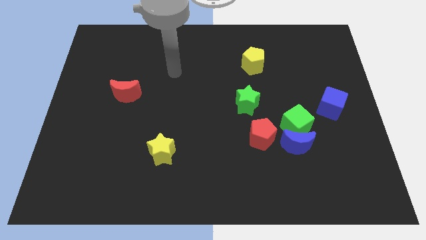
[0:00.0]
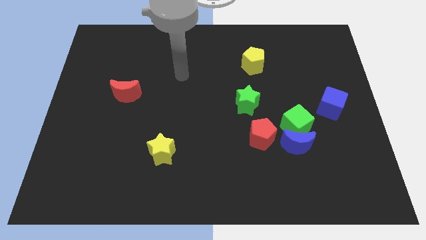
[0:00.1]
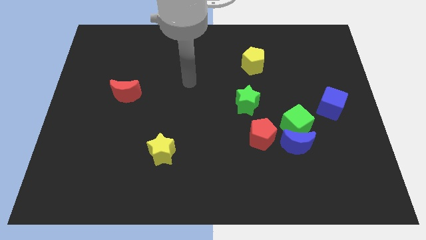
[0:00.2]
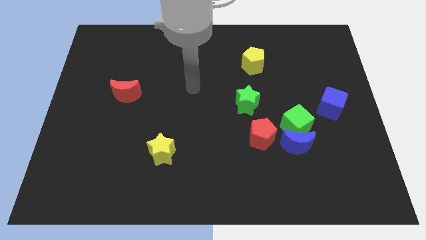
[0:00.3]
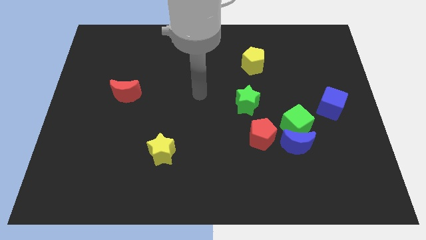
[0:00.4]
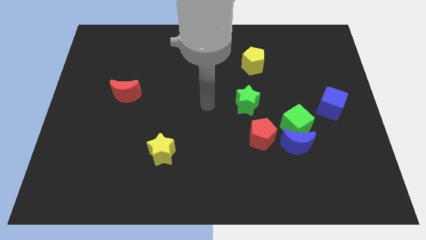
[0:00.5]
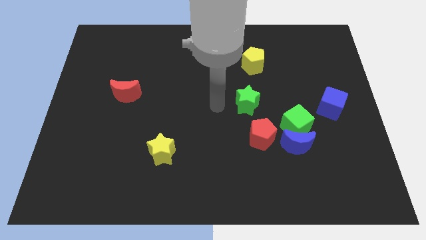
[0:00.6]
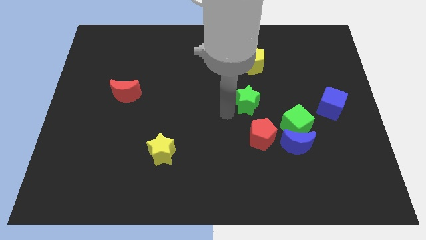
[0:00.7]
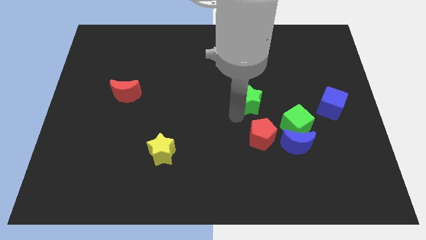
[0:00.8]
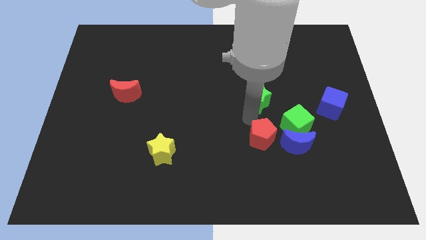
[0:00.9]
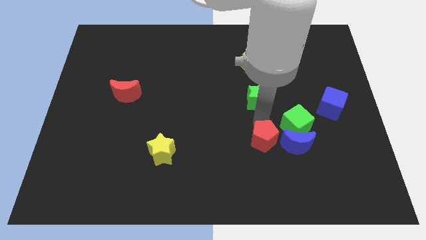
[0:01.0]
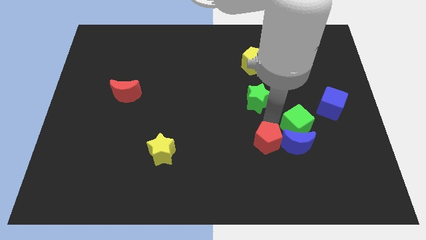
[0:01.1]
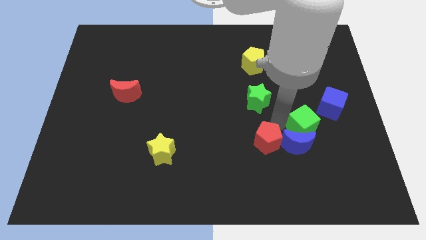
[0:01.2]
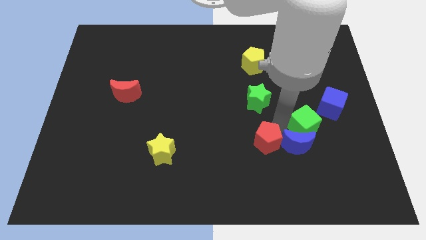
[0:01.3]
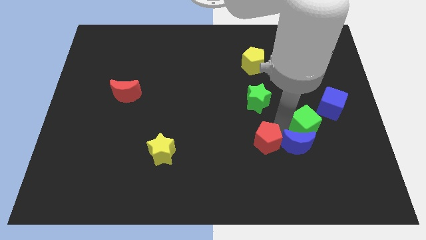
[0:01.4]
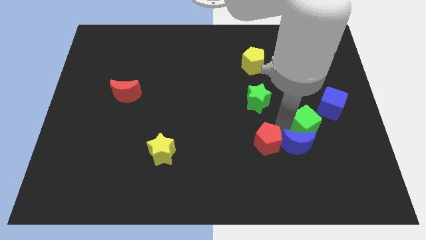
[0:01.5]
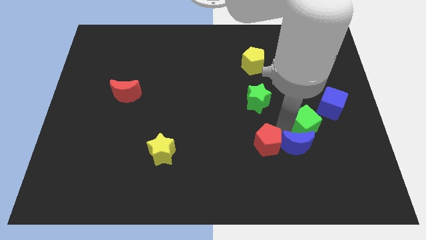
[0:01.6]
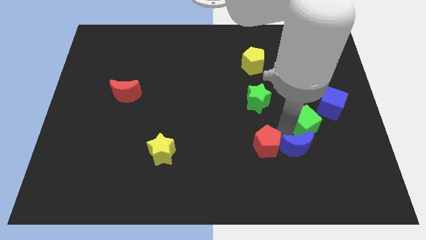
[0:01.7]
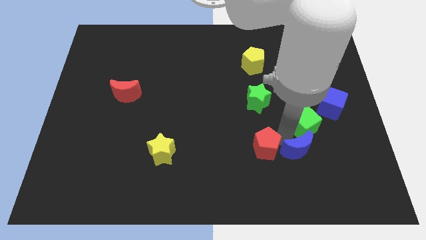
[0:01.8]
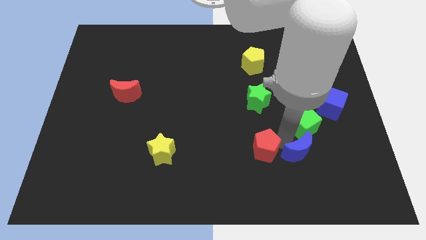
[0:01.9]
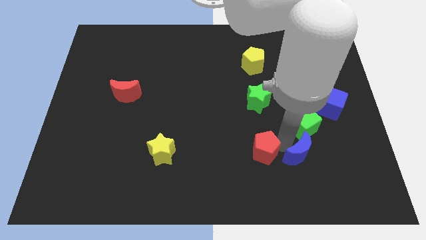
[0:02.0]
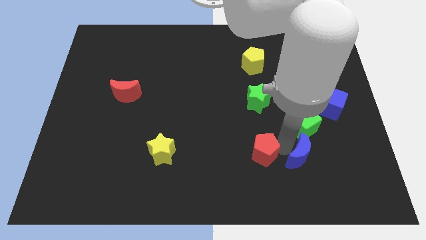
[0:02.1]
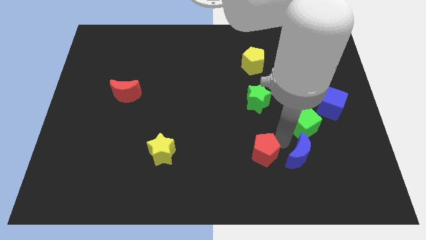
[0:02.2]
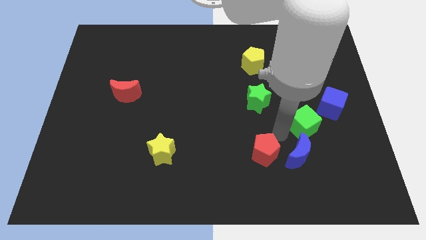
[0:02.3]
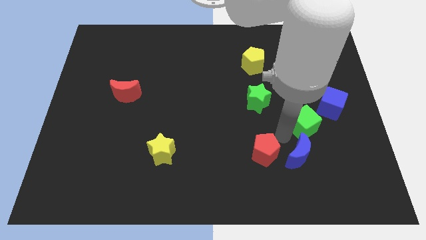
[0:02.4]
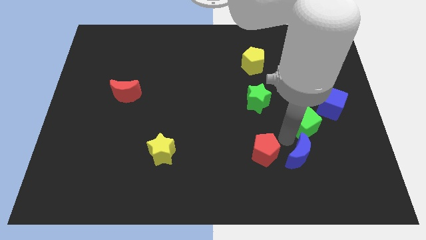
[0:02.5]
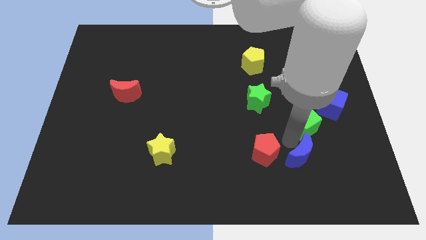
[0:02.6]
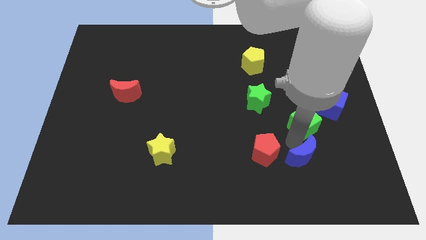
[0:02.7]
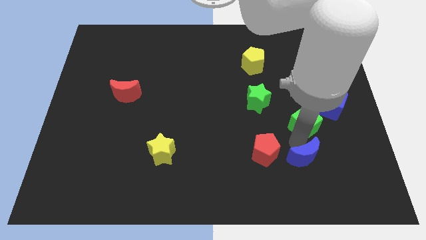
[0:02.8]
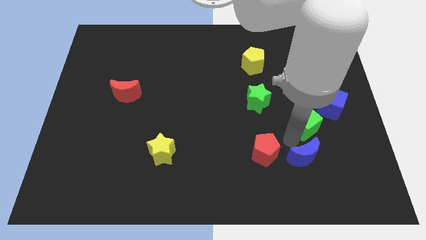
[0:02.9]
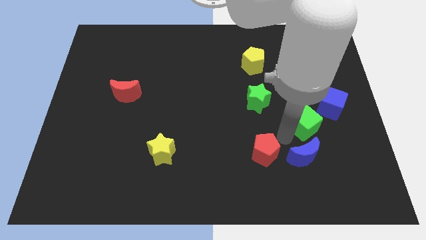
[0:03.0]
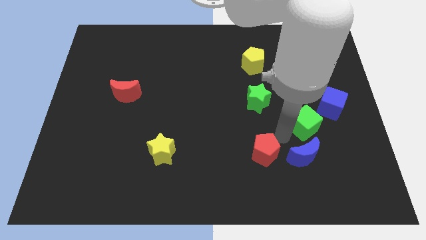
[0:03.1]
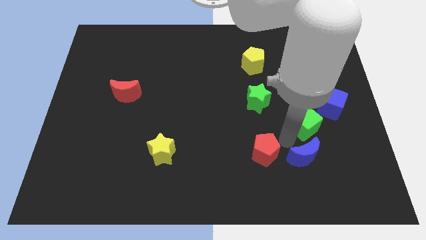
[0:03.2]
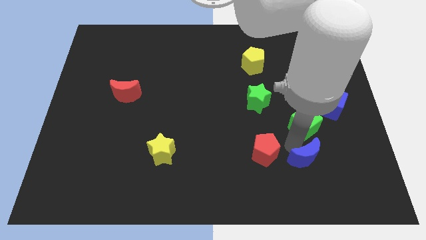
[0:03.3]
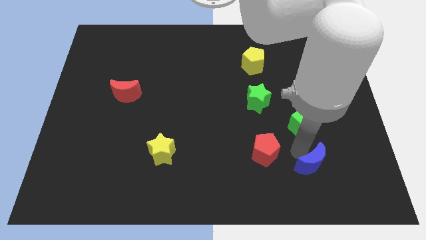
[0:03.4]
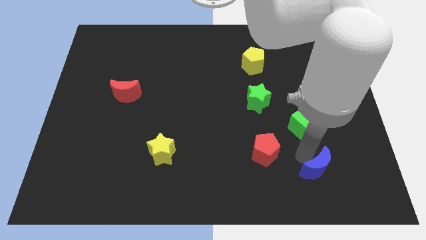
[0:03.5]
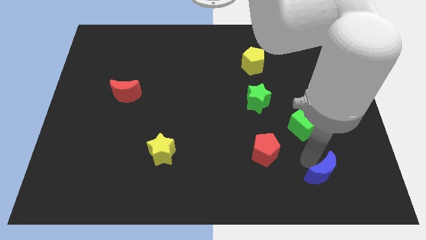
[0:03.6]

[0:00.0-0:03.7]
move the blue moon away from the green cube and red pentagon

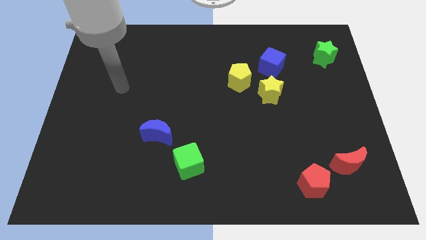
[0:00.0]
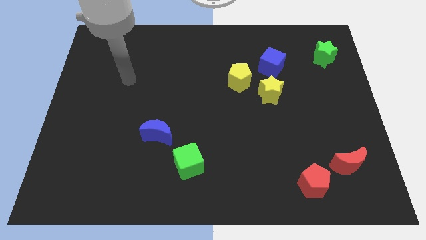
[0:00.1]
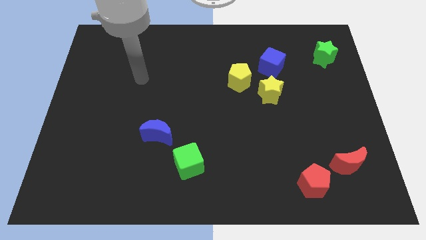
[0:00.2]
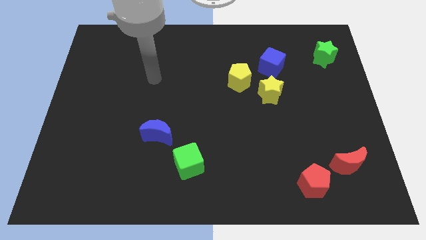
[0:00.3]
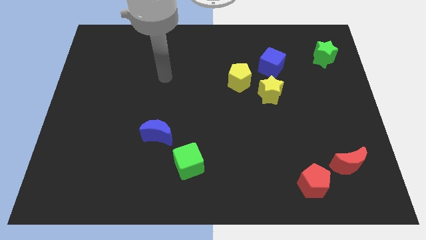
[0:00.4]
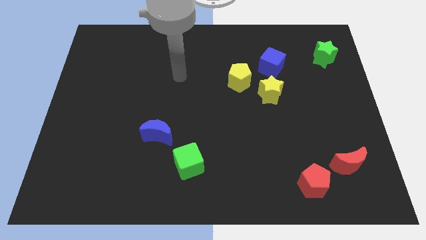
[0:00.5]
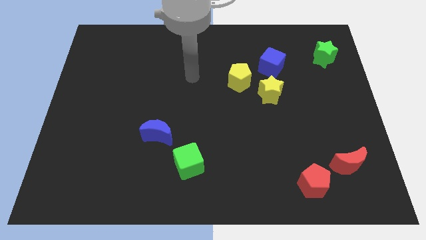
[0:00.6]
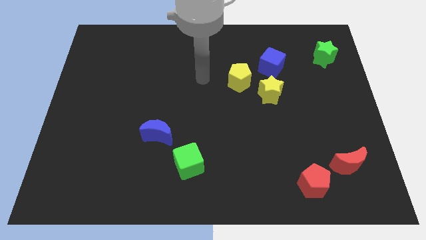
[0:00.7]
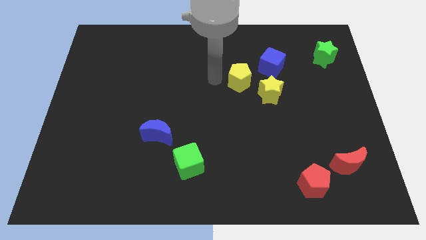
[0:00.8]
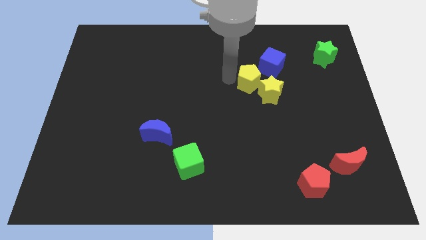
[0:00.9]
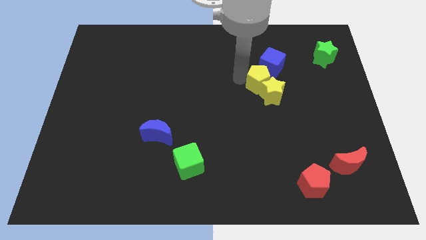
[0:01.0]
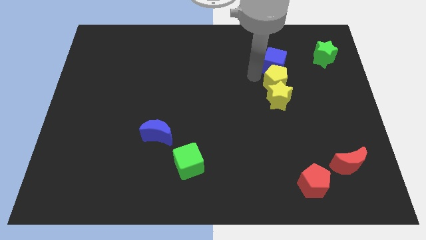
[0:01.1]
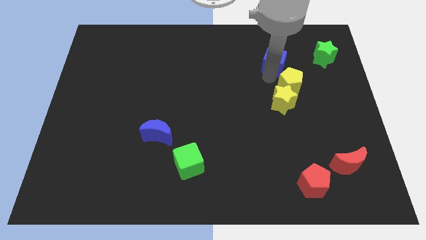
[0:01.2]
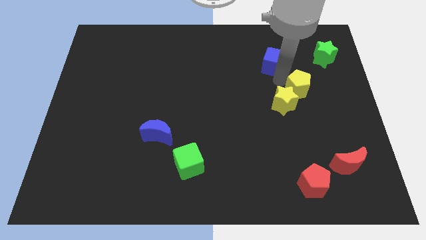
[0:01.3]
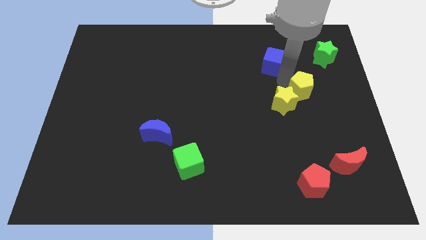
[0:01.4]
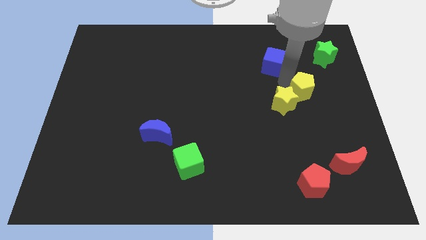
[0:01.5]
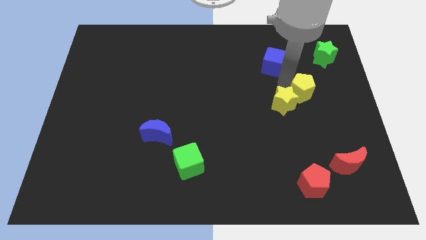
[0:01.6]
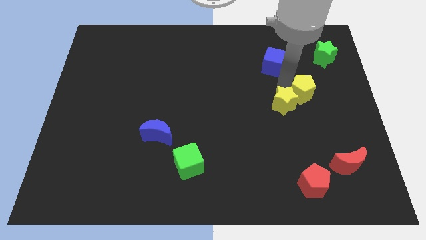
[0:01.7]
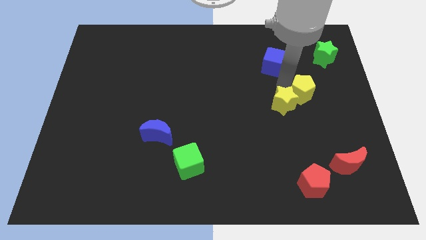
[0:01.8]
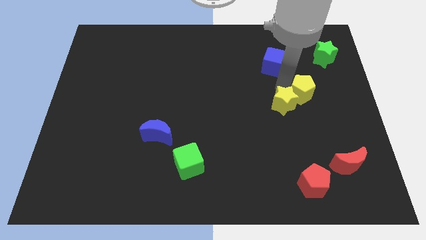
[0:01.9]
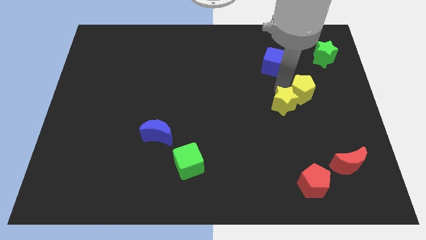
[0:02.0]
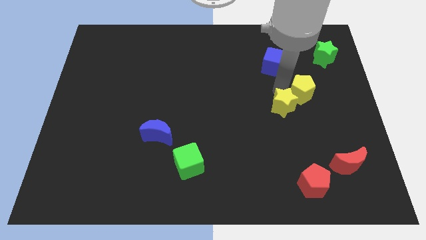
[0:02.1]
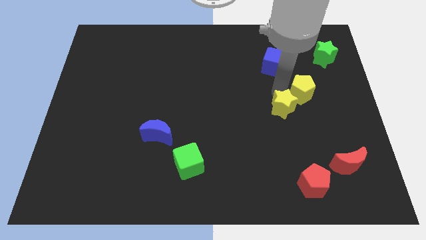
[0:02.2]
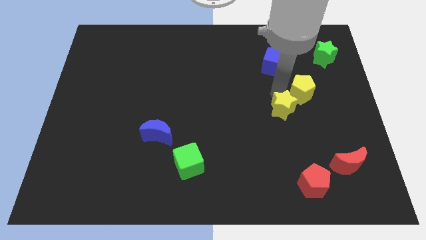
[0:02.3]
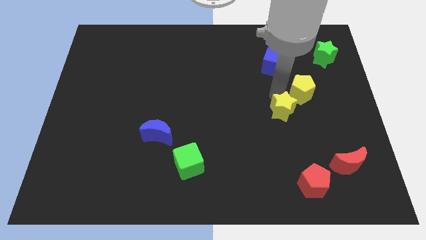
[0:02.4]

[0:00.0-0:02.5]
move the yellow star away from the yellow pentagon and blue cube

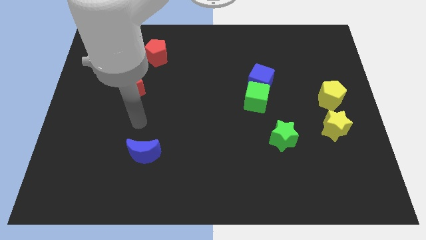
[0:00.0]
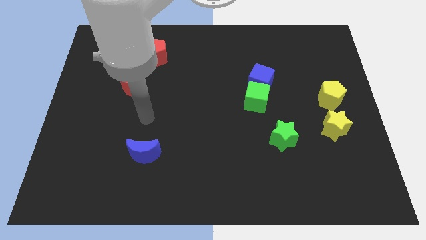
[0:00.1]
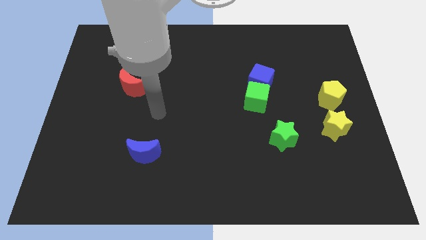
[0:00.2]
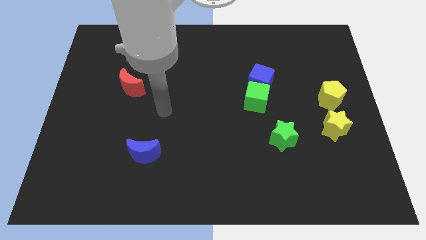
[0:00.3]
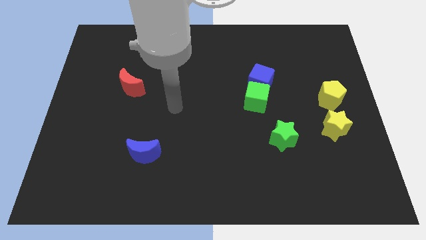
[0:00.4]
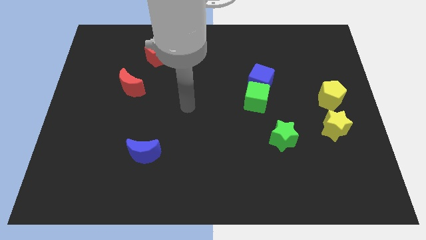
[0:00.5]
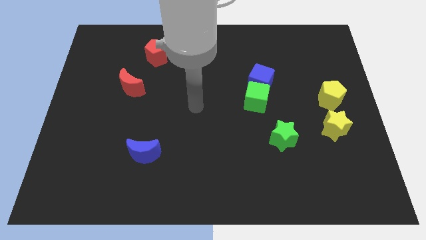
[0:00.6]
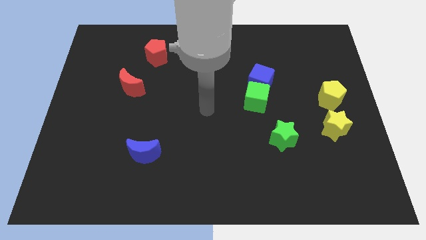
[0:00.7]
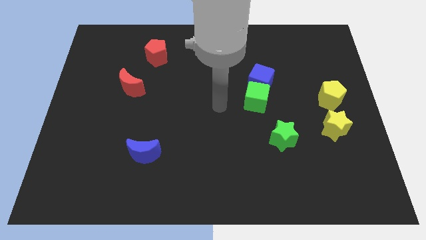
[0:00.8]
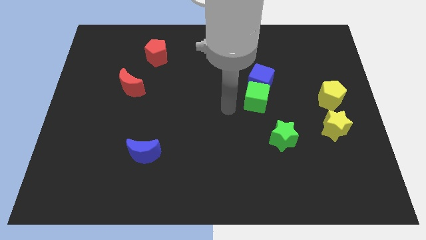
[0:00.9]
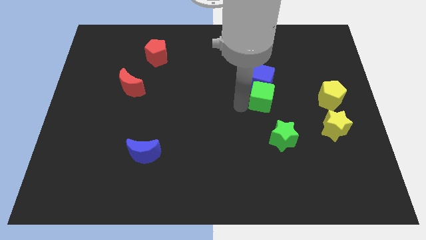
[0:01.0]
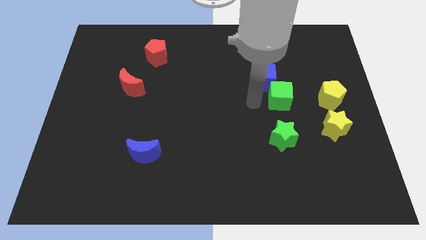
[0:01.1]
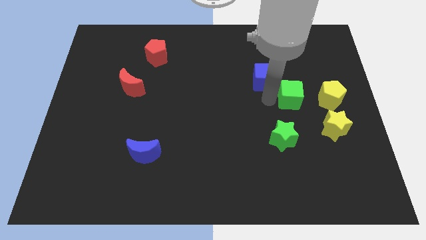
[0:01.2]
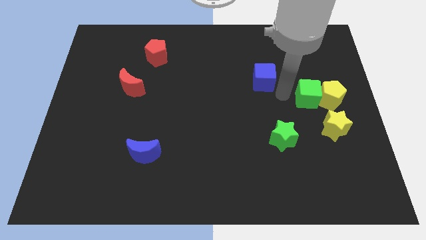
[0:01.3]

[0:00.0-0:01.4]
separate the blue cube from the green cube

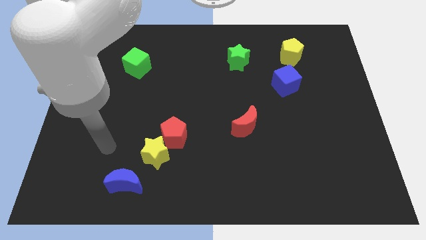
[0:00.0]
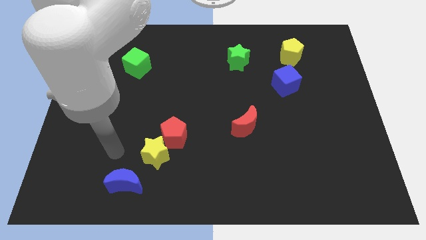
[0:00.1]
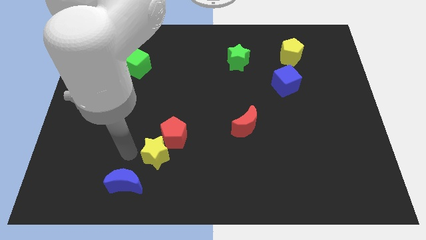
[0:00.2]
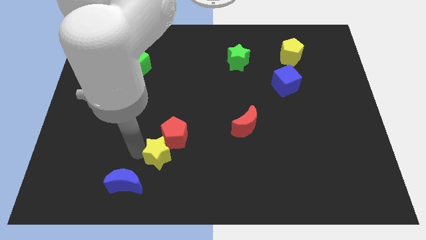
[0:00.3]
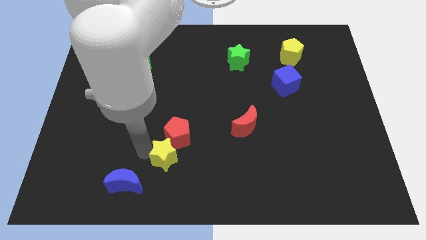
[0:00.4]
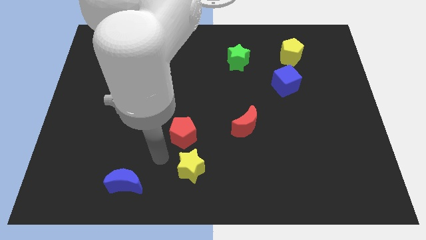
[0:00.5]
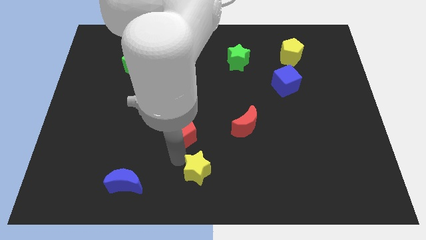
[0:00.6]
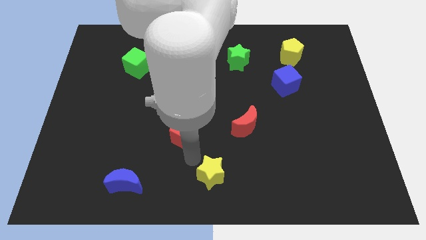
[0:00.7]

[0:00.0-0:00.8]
pull the red pentagon apart from the yellow star

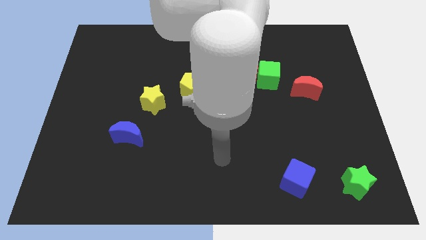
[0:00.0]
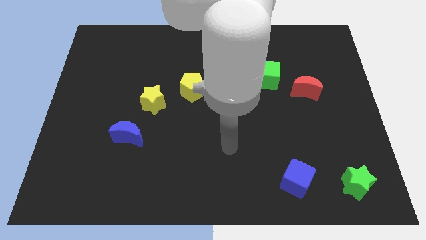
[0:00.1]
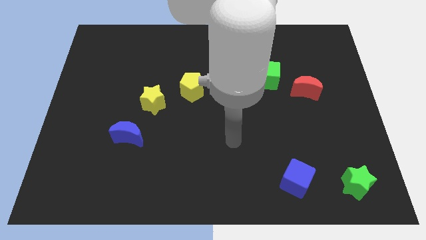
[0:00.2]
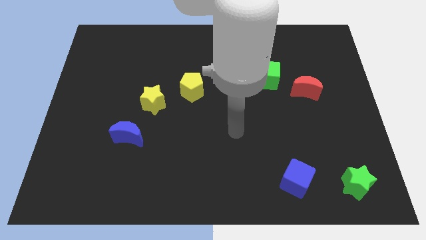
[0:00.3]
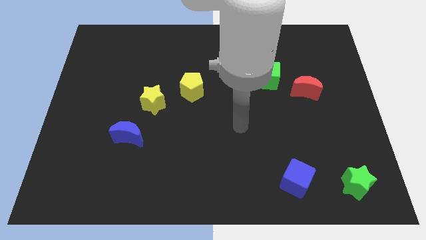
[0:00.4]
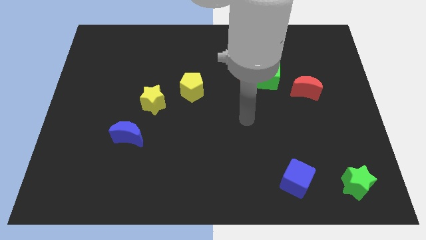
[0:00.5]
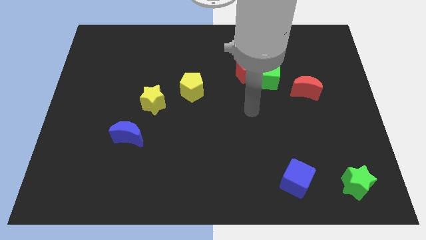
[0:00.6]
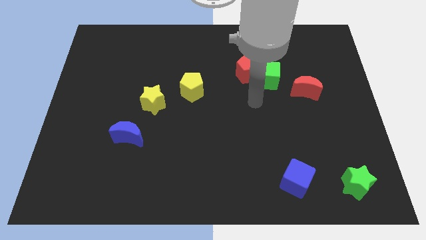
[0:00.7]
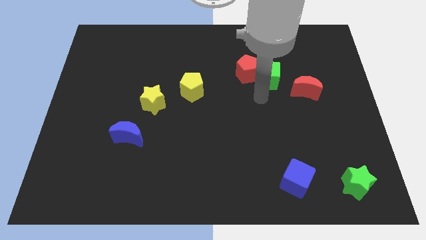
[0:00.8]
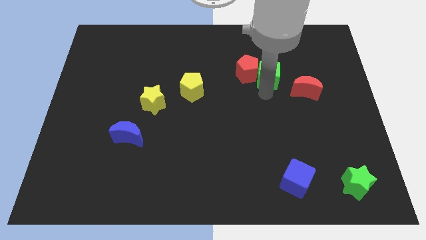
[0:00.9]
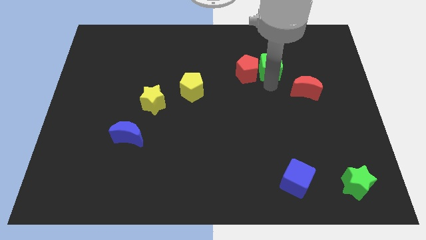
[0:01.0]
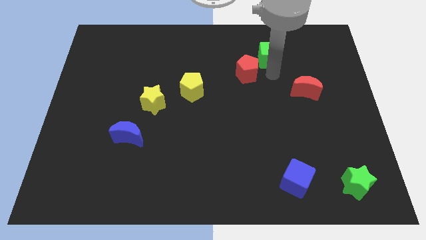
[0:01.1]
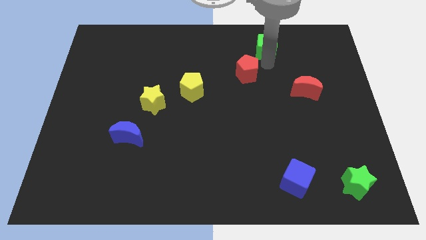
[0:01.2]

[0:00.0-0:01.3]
separate the red pentagon from the green cube
